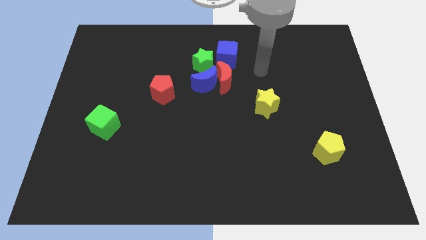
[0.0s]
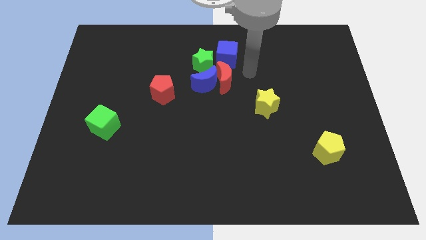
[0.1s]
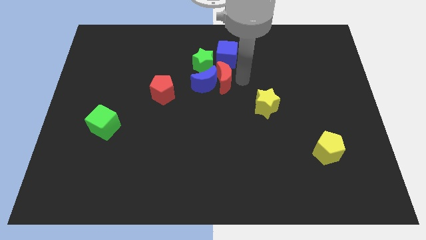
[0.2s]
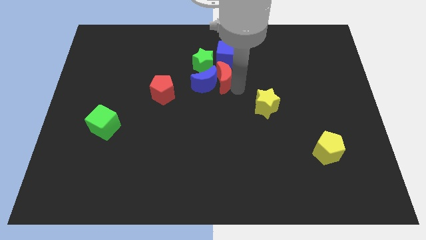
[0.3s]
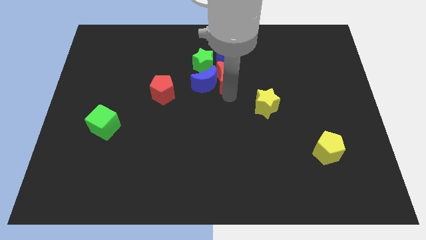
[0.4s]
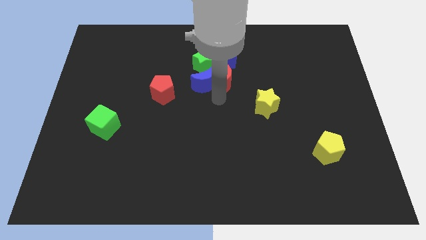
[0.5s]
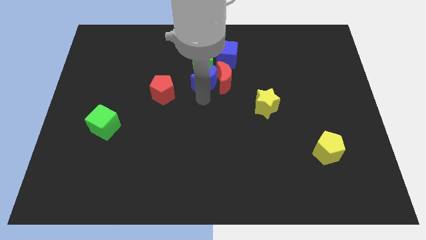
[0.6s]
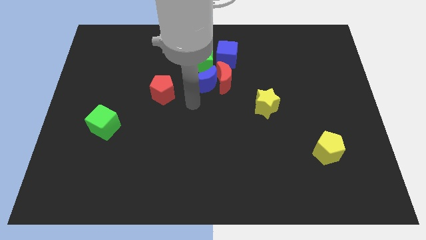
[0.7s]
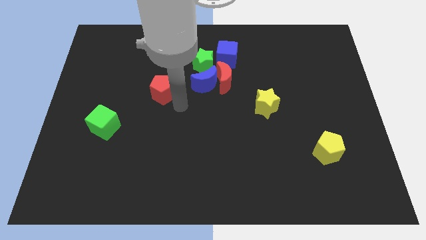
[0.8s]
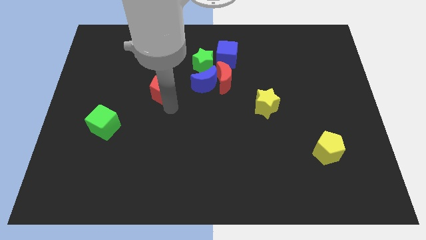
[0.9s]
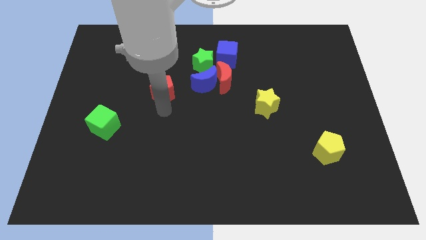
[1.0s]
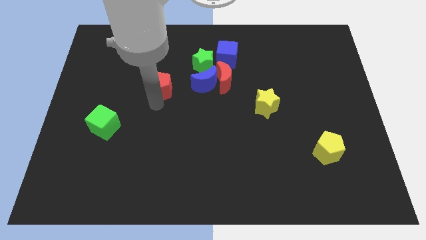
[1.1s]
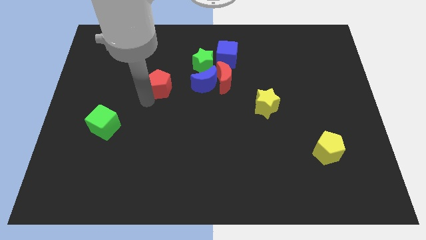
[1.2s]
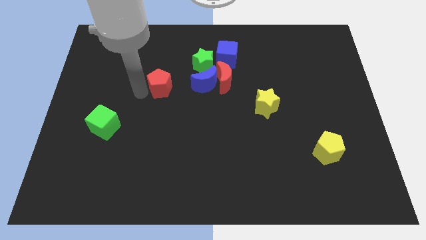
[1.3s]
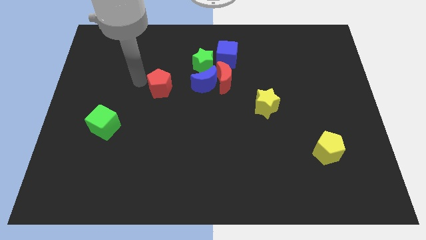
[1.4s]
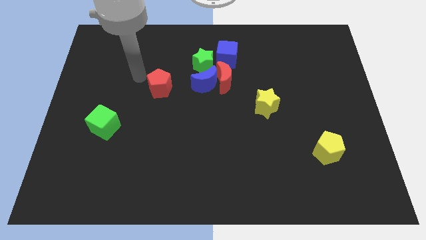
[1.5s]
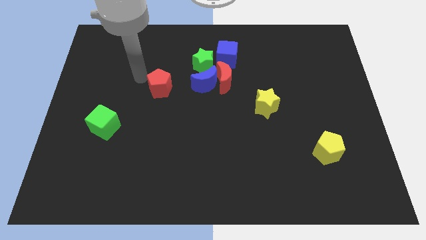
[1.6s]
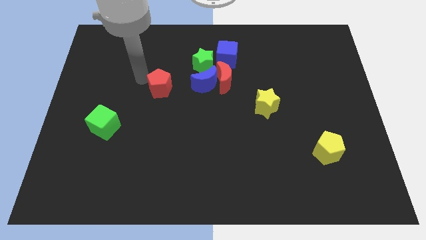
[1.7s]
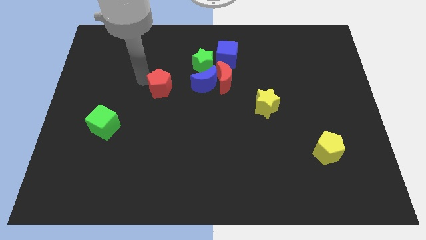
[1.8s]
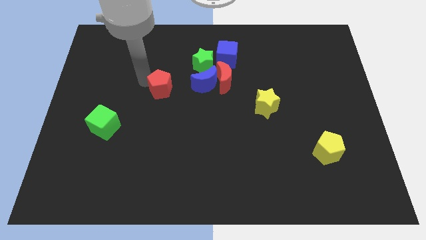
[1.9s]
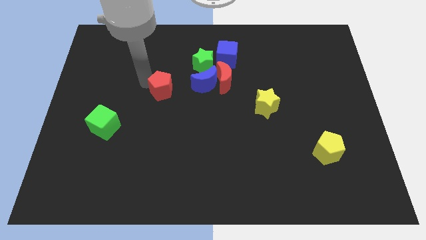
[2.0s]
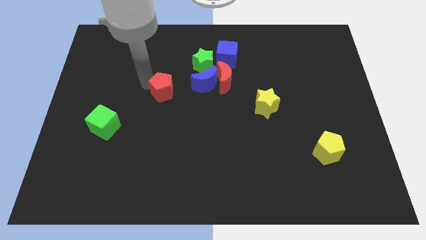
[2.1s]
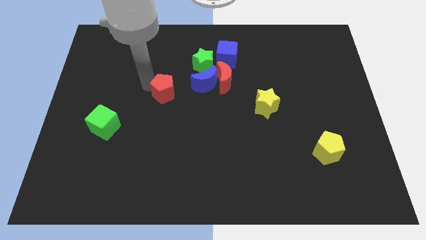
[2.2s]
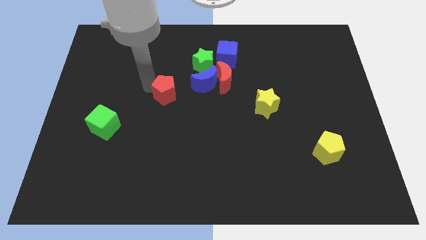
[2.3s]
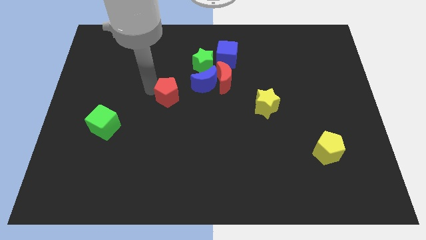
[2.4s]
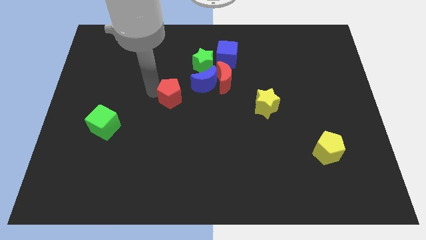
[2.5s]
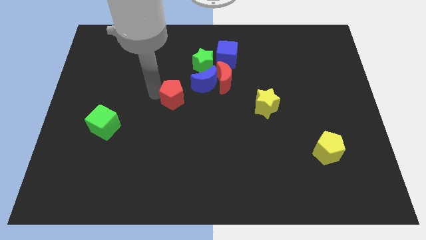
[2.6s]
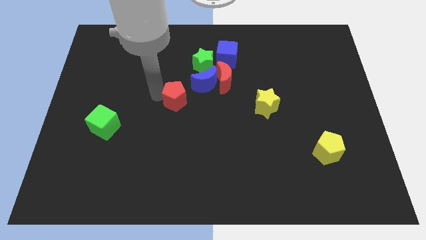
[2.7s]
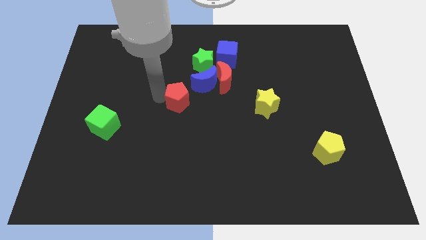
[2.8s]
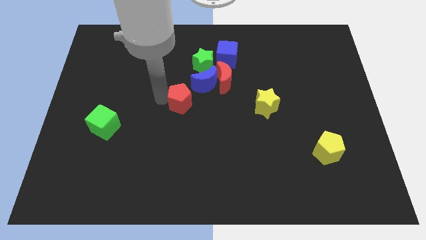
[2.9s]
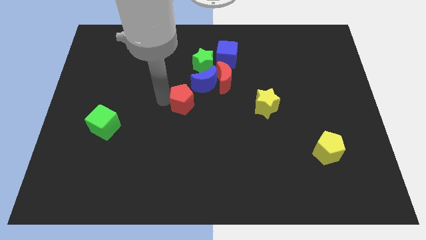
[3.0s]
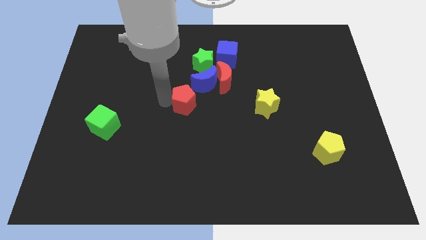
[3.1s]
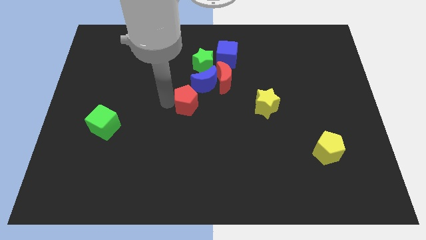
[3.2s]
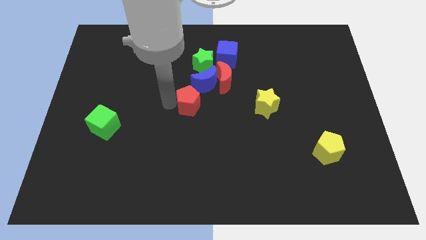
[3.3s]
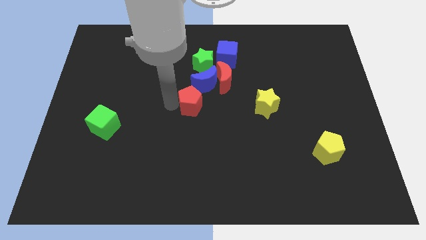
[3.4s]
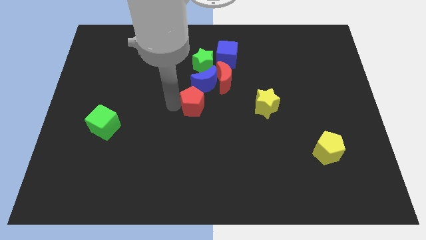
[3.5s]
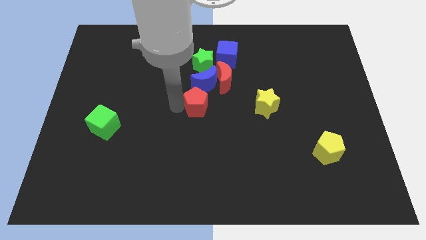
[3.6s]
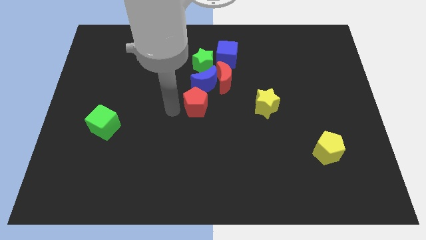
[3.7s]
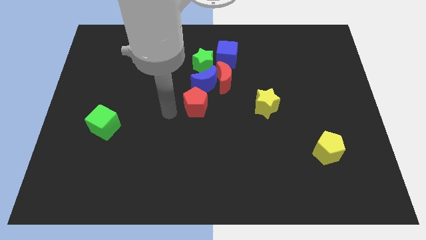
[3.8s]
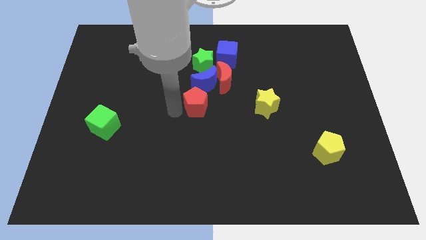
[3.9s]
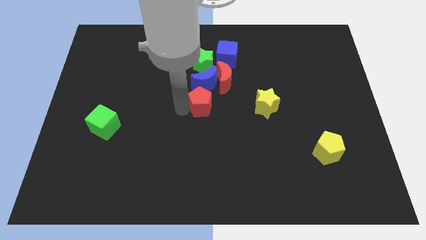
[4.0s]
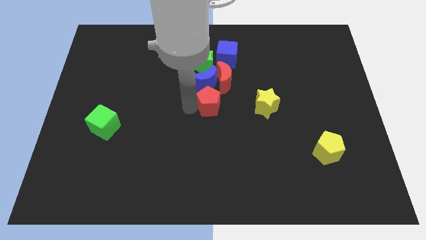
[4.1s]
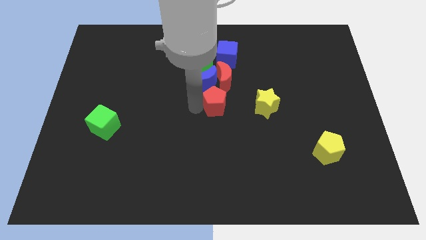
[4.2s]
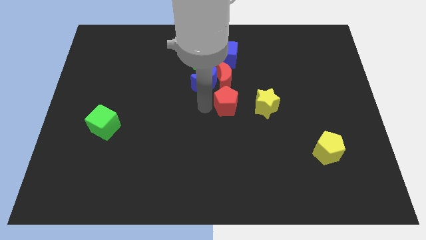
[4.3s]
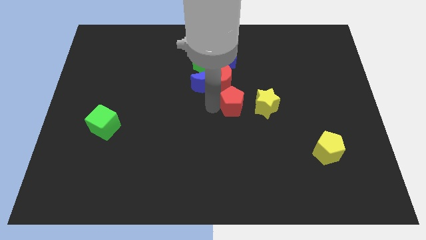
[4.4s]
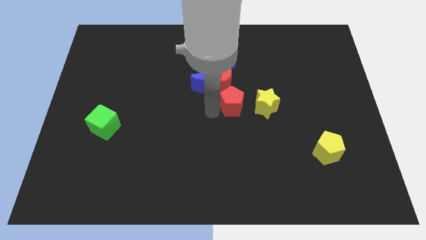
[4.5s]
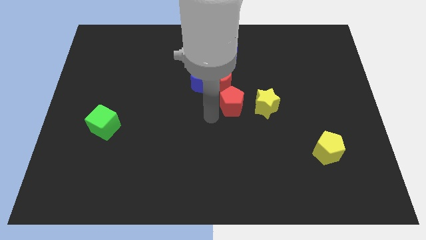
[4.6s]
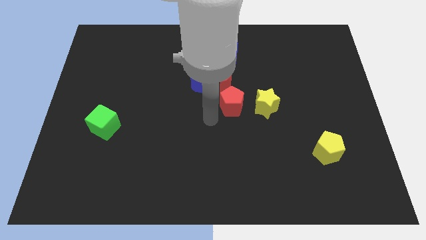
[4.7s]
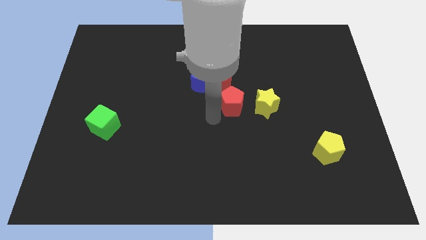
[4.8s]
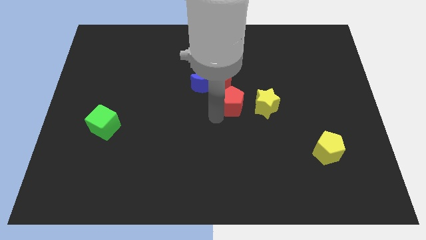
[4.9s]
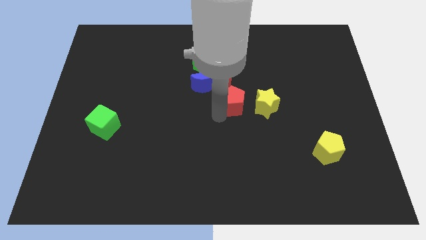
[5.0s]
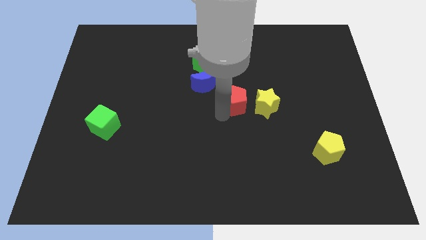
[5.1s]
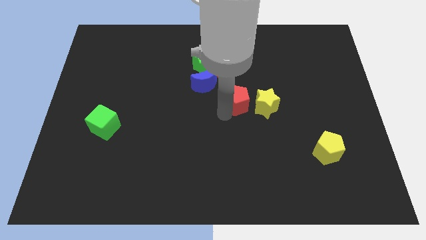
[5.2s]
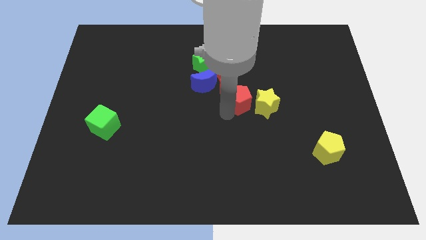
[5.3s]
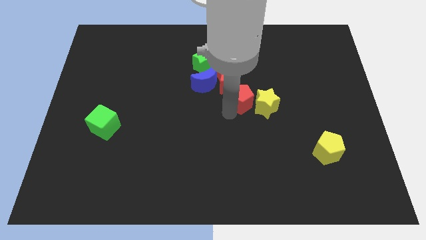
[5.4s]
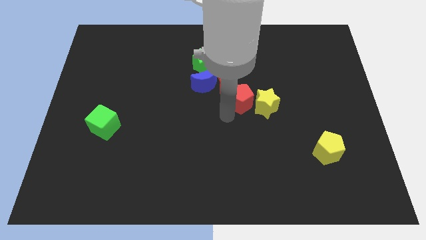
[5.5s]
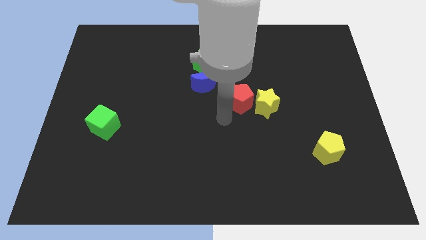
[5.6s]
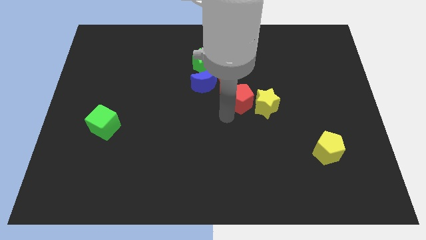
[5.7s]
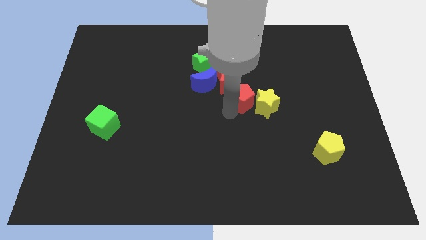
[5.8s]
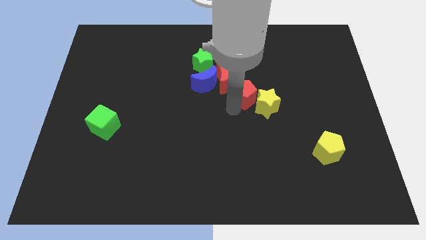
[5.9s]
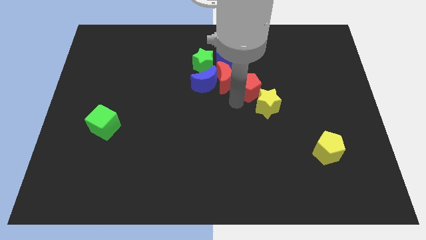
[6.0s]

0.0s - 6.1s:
slide the red pentagon right

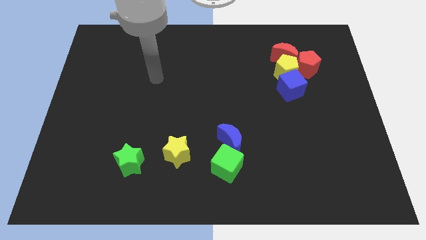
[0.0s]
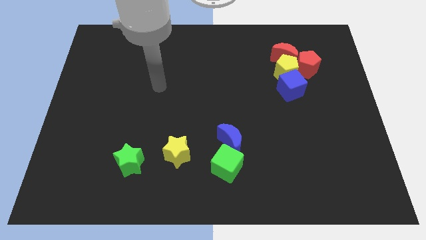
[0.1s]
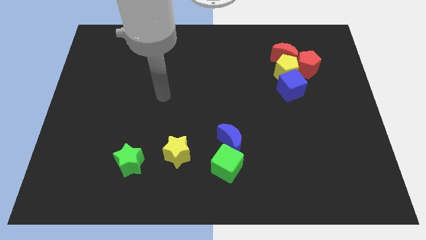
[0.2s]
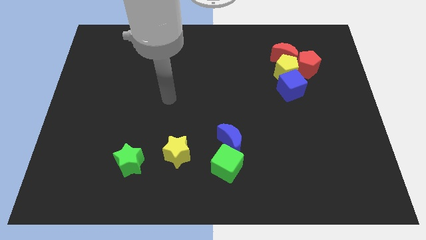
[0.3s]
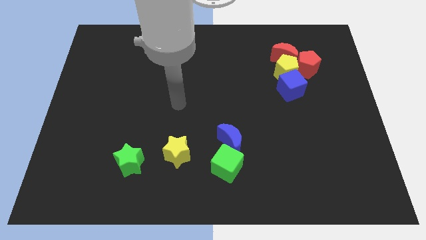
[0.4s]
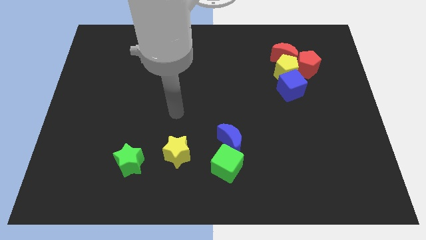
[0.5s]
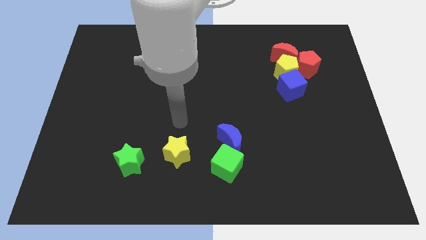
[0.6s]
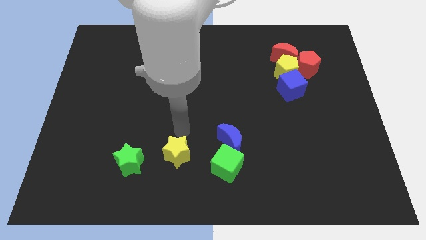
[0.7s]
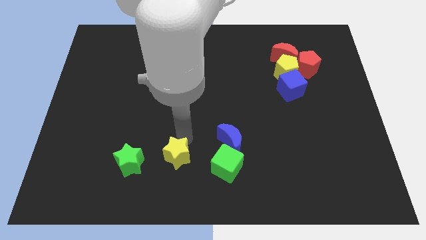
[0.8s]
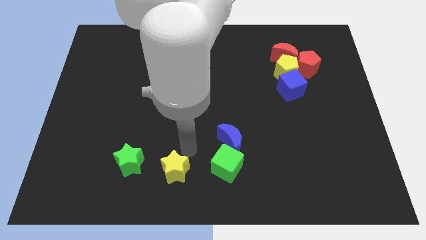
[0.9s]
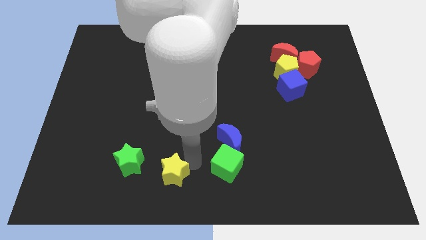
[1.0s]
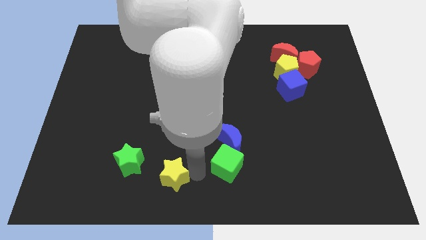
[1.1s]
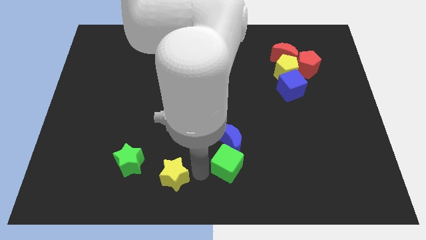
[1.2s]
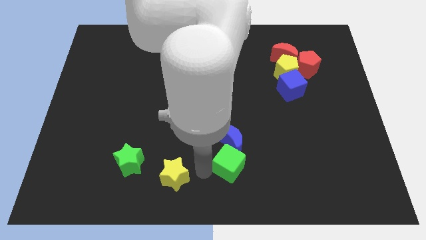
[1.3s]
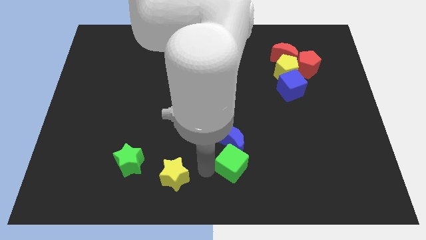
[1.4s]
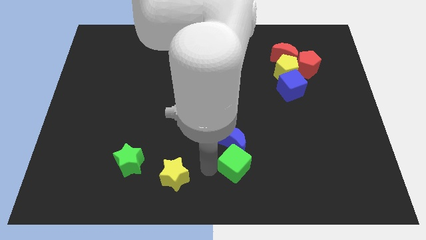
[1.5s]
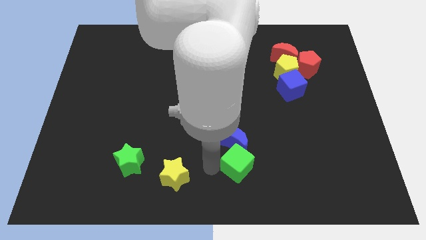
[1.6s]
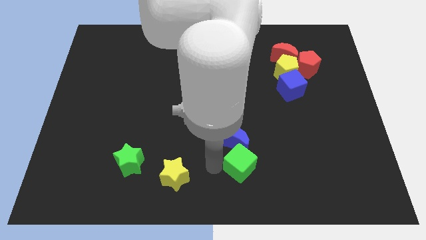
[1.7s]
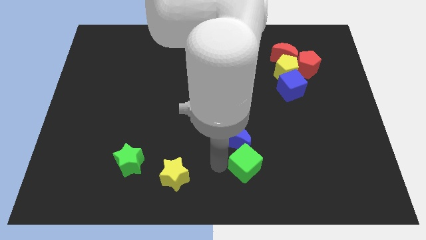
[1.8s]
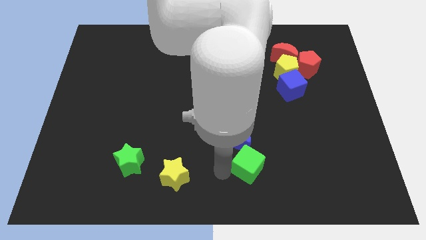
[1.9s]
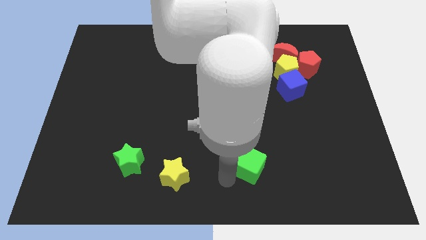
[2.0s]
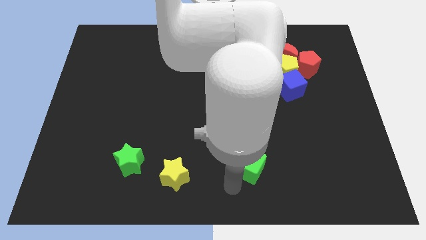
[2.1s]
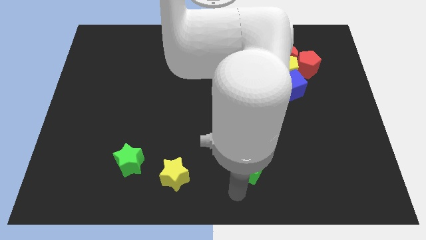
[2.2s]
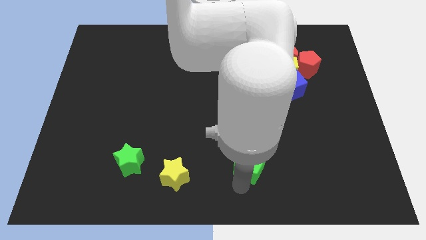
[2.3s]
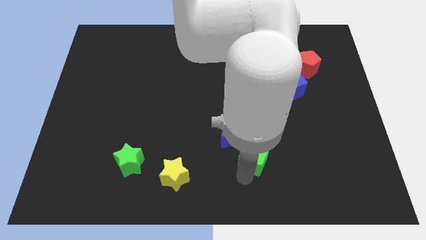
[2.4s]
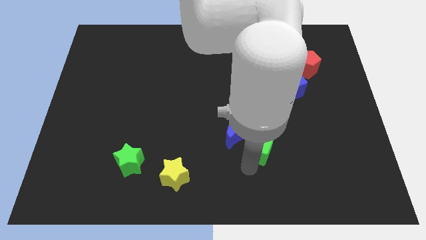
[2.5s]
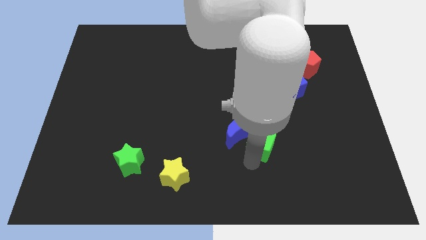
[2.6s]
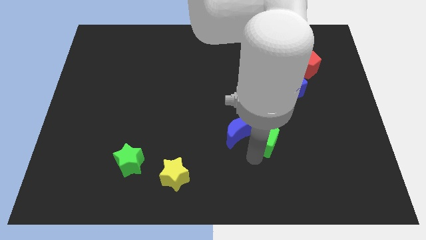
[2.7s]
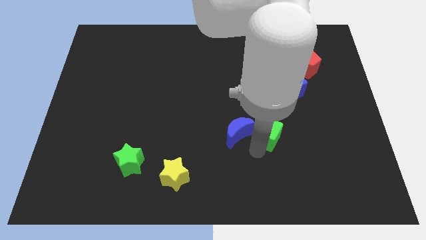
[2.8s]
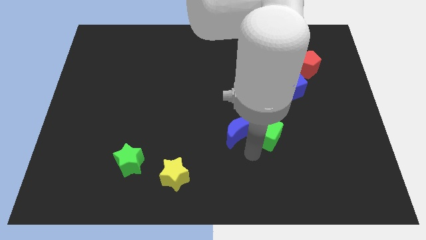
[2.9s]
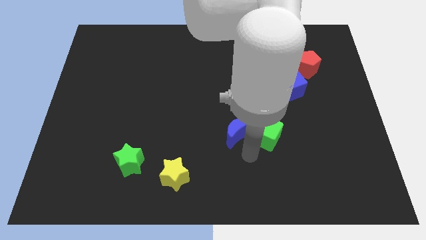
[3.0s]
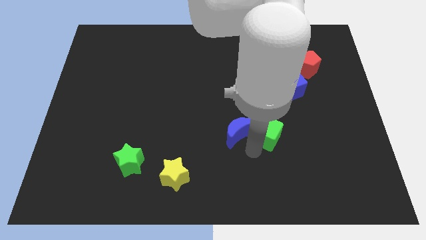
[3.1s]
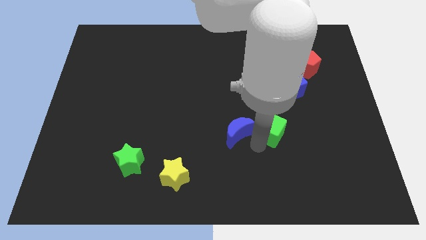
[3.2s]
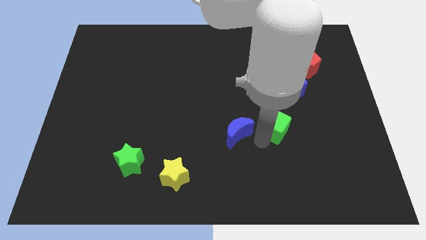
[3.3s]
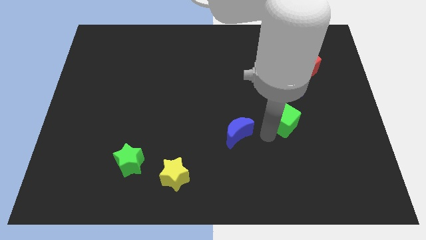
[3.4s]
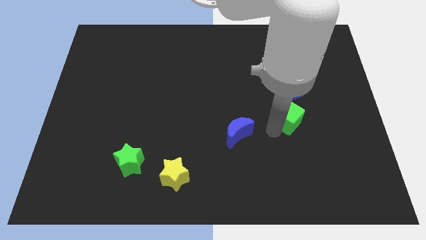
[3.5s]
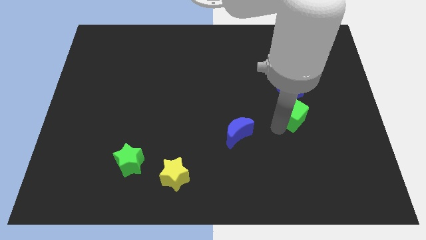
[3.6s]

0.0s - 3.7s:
push the green cube diagonally upwards and to the right
